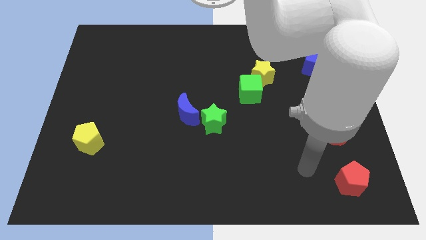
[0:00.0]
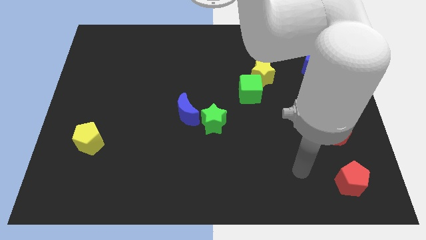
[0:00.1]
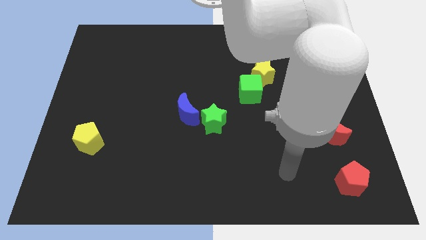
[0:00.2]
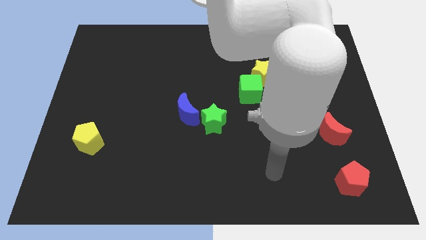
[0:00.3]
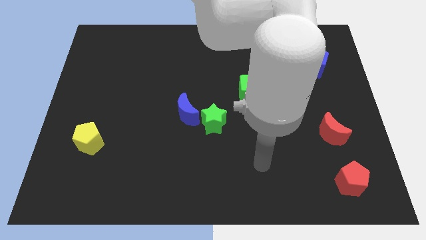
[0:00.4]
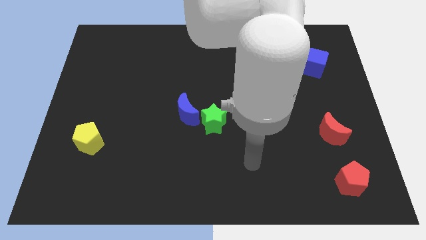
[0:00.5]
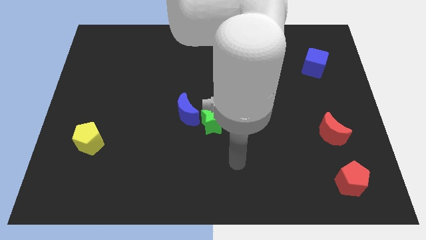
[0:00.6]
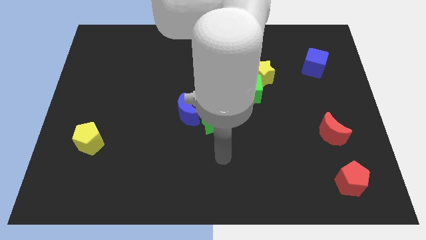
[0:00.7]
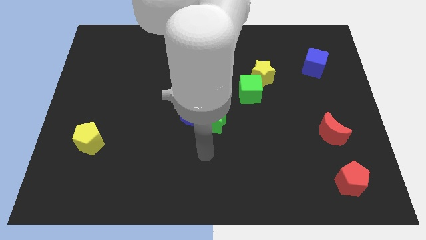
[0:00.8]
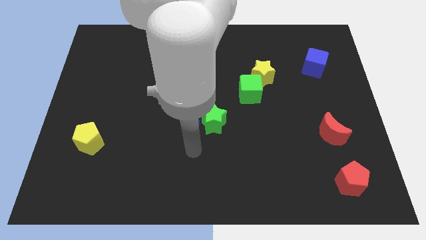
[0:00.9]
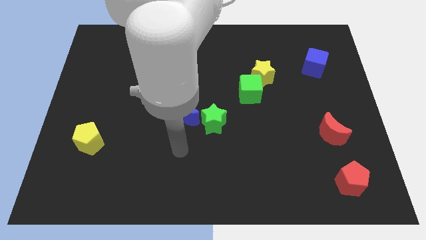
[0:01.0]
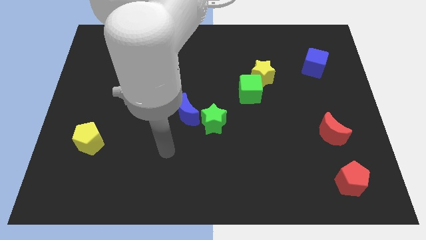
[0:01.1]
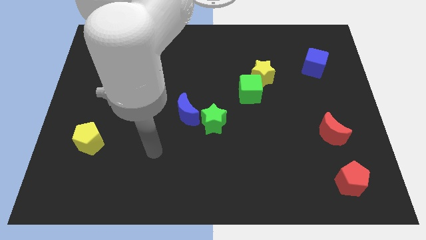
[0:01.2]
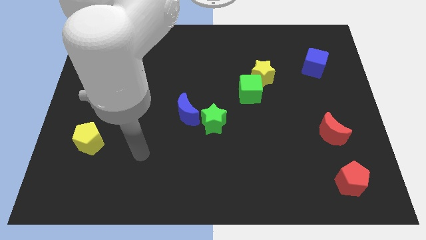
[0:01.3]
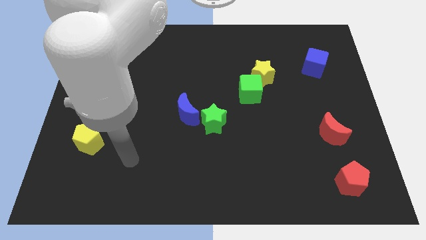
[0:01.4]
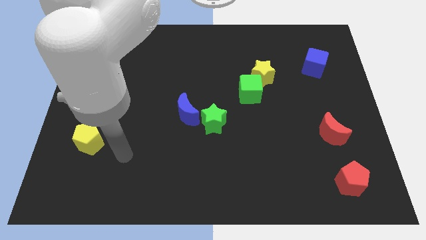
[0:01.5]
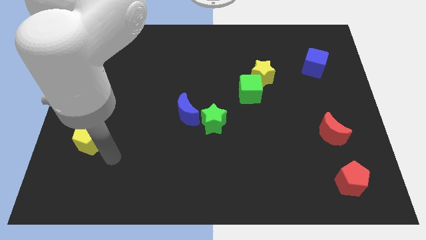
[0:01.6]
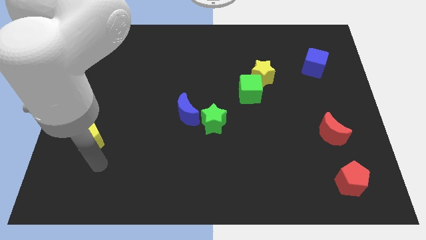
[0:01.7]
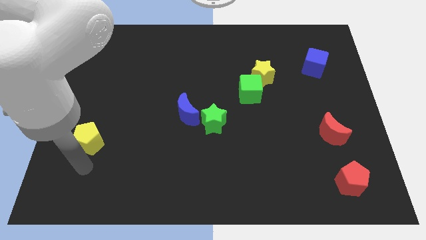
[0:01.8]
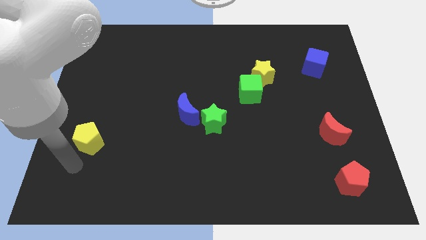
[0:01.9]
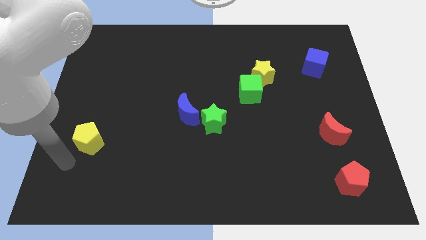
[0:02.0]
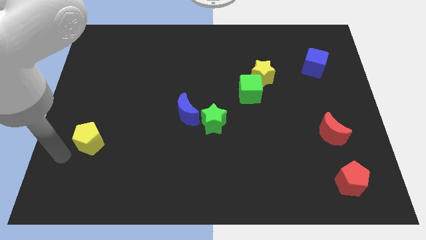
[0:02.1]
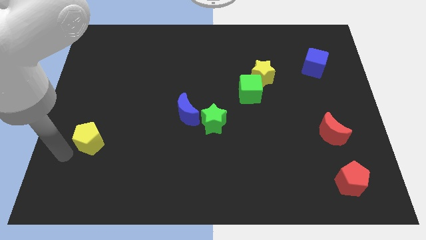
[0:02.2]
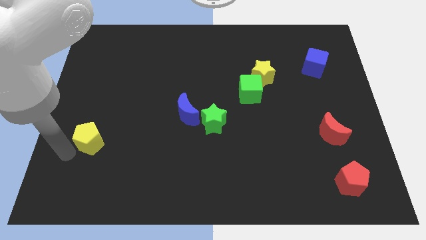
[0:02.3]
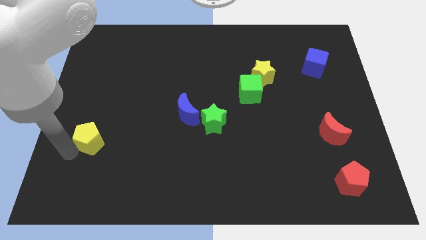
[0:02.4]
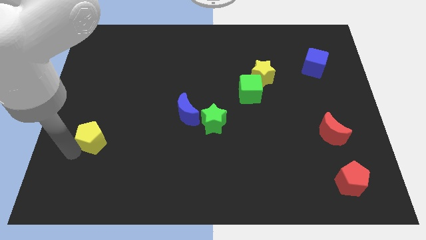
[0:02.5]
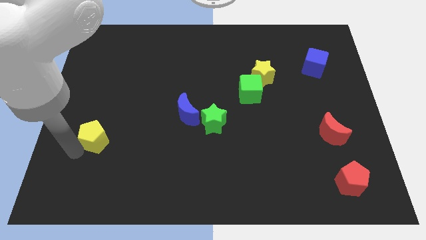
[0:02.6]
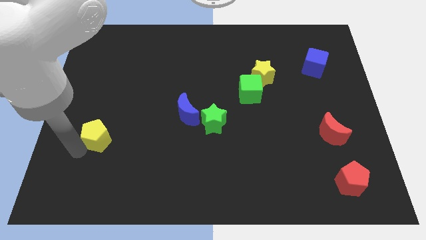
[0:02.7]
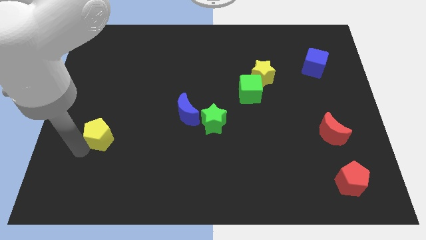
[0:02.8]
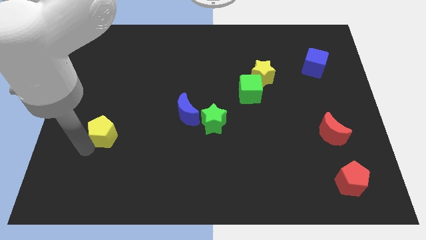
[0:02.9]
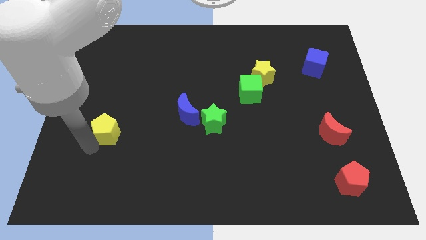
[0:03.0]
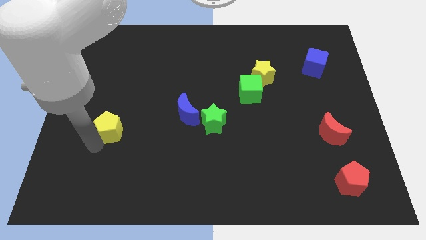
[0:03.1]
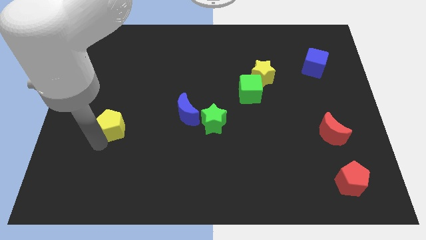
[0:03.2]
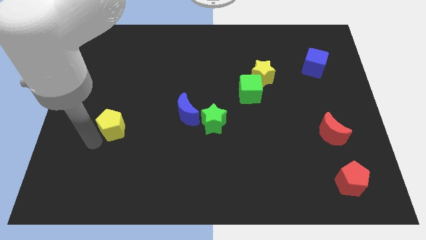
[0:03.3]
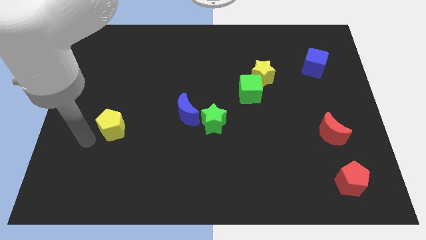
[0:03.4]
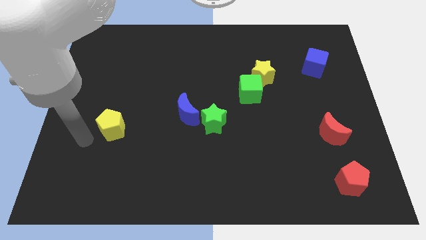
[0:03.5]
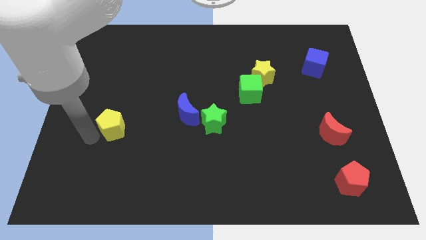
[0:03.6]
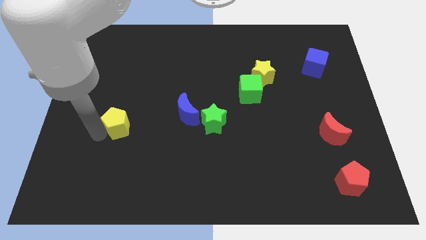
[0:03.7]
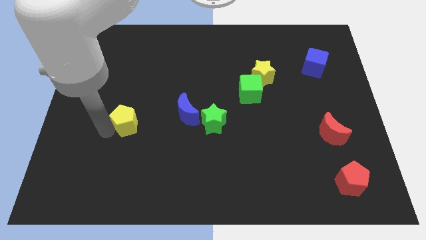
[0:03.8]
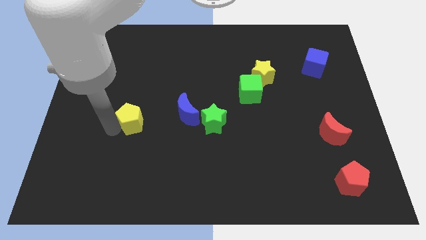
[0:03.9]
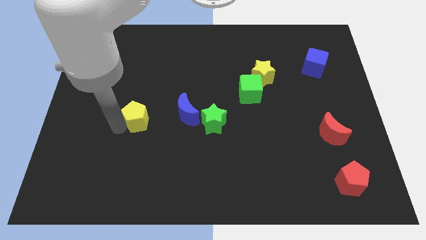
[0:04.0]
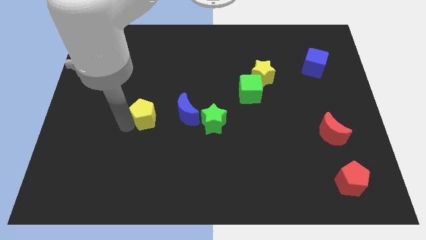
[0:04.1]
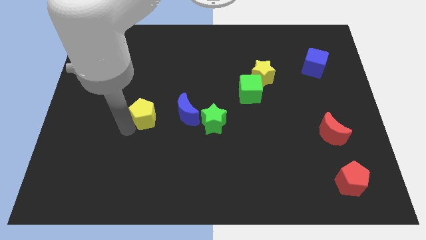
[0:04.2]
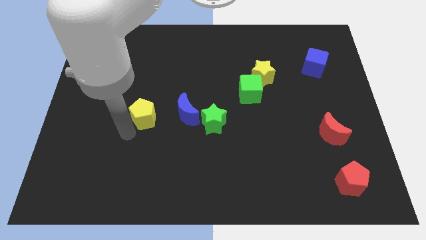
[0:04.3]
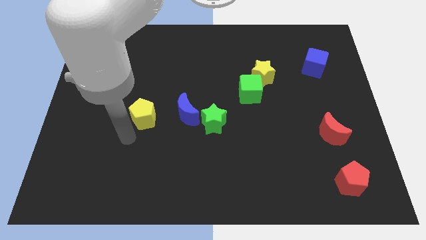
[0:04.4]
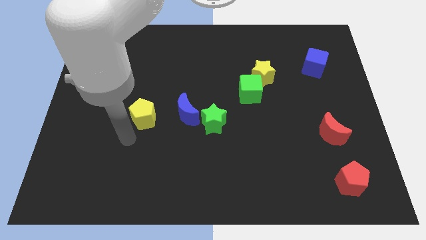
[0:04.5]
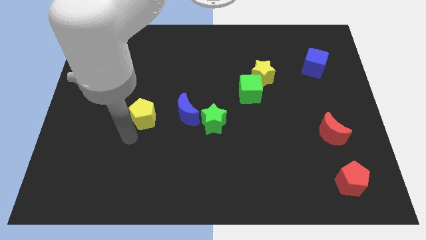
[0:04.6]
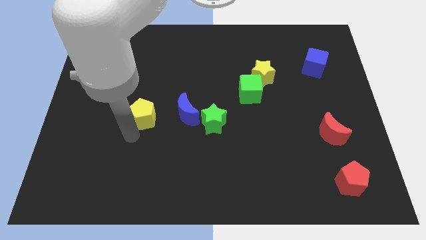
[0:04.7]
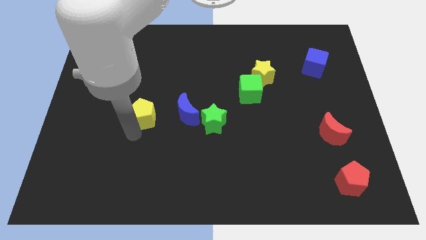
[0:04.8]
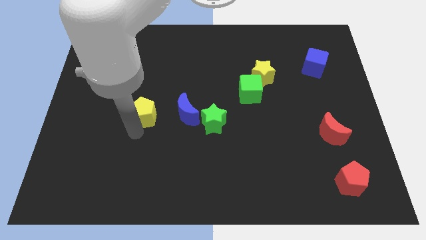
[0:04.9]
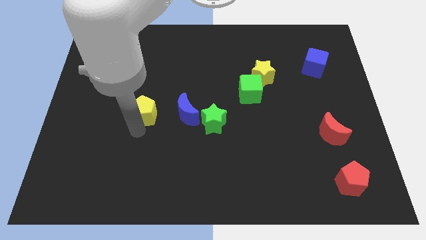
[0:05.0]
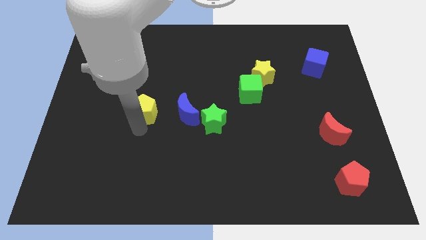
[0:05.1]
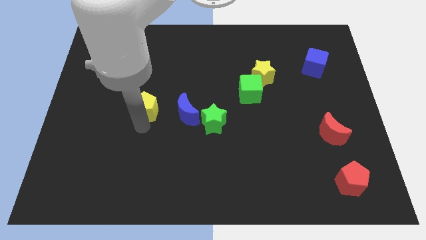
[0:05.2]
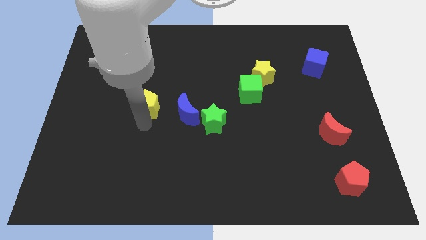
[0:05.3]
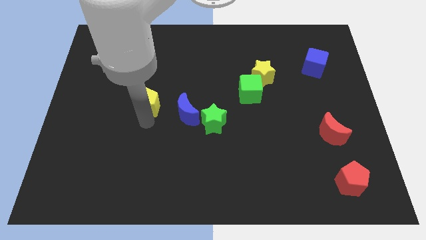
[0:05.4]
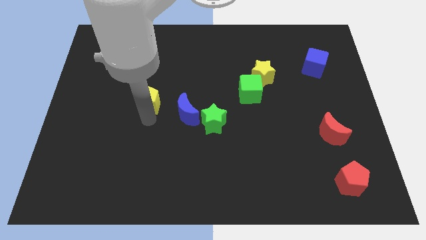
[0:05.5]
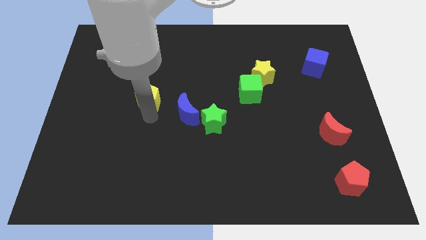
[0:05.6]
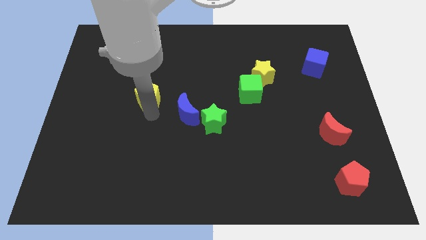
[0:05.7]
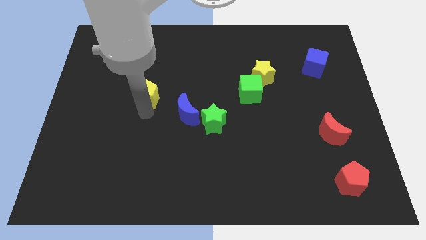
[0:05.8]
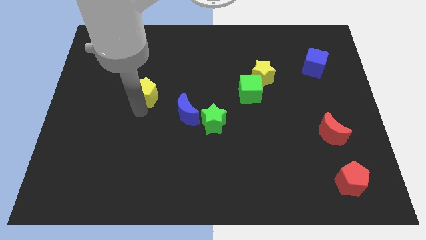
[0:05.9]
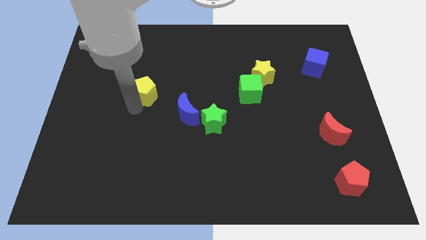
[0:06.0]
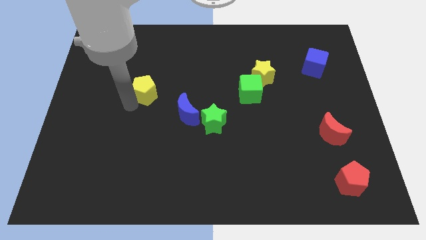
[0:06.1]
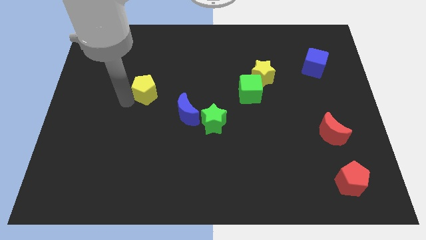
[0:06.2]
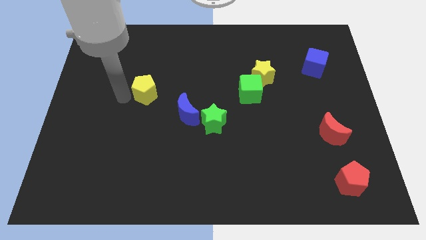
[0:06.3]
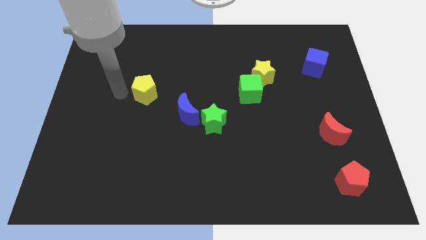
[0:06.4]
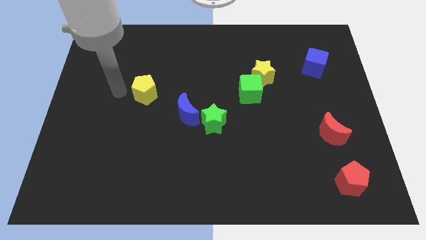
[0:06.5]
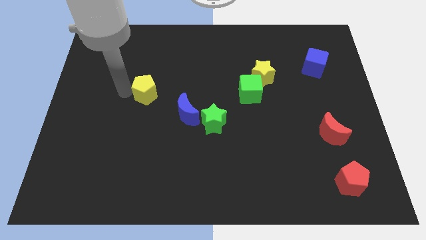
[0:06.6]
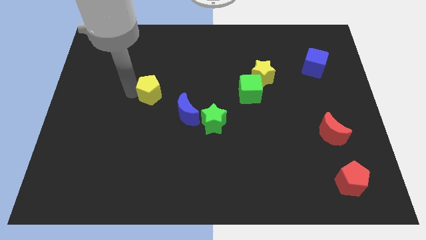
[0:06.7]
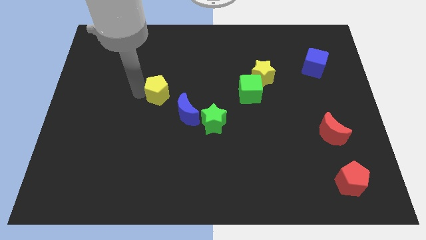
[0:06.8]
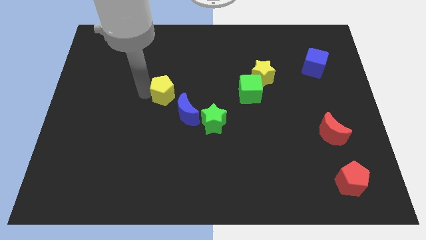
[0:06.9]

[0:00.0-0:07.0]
push the yellow pentagon to the middle of the board
